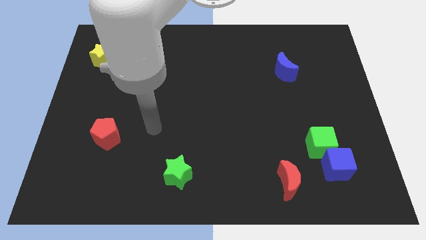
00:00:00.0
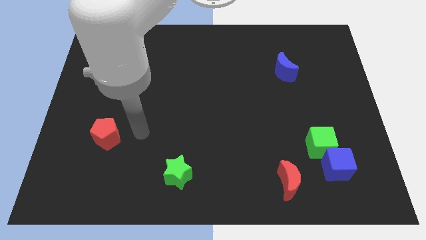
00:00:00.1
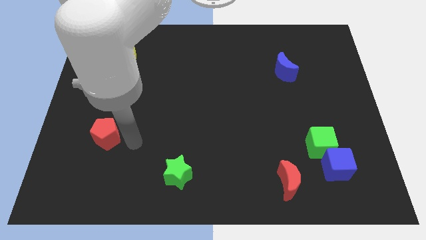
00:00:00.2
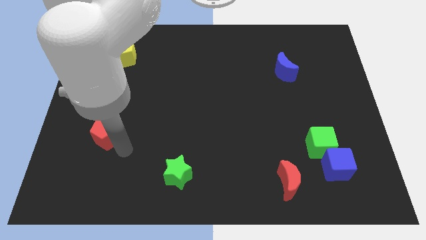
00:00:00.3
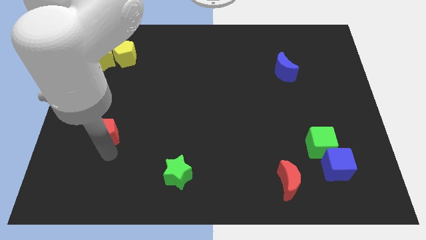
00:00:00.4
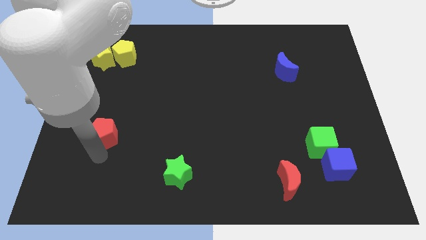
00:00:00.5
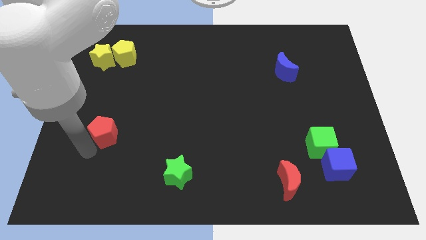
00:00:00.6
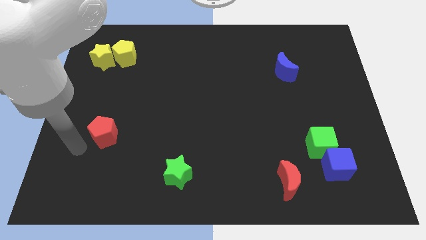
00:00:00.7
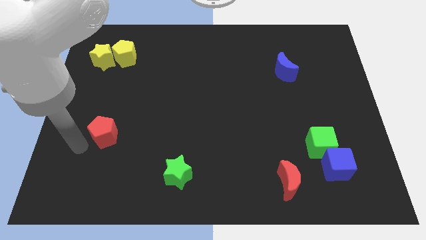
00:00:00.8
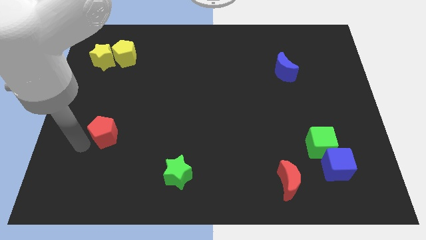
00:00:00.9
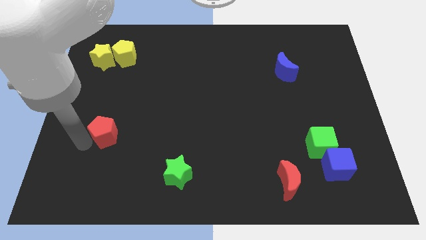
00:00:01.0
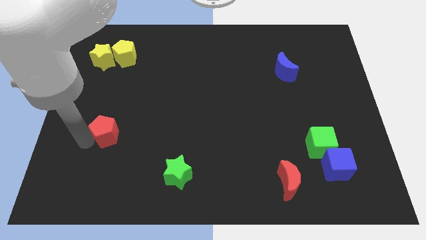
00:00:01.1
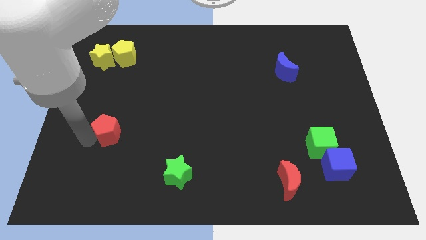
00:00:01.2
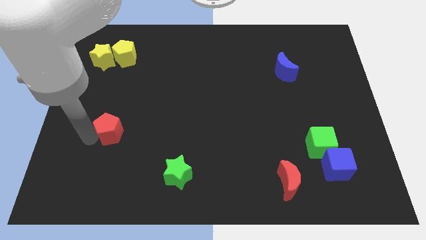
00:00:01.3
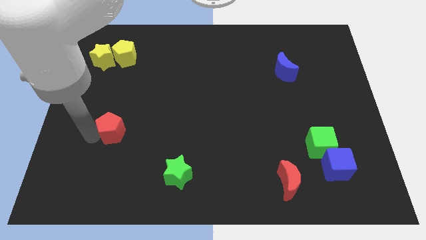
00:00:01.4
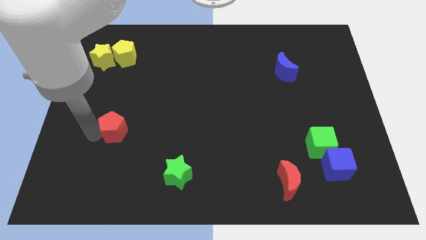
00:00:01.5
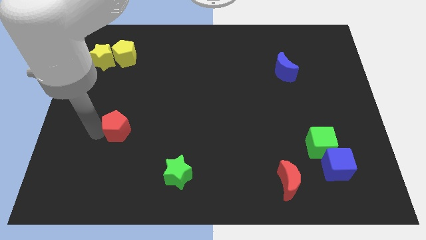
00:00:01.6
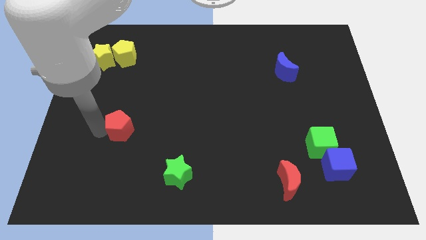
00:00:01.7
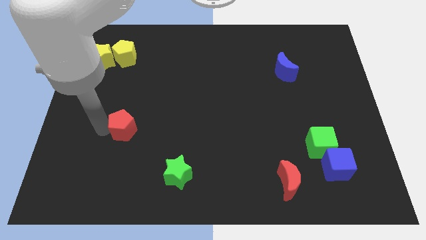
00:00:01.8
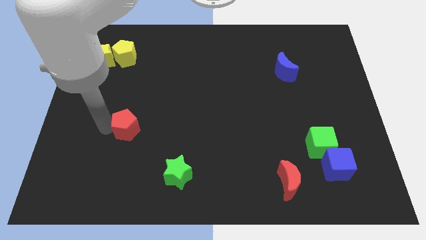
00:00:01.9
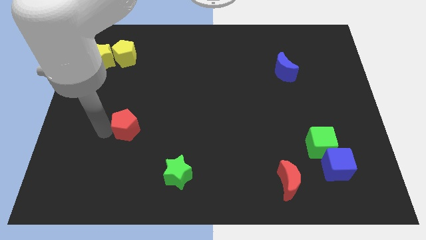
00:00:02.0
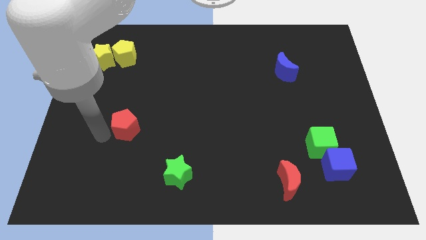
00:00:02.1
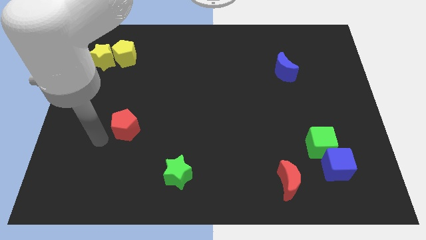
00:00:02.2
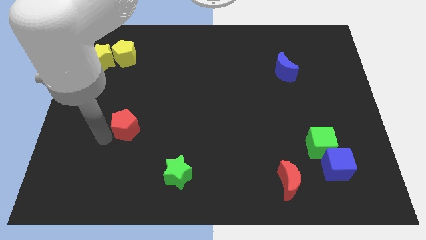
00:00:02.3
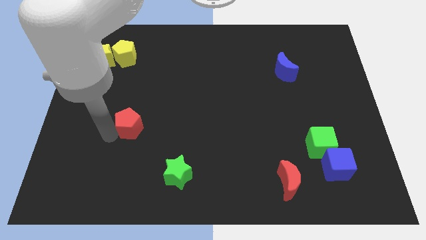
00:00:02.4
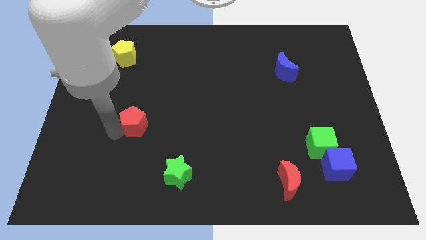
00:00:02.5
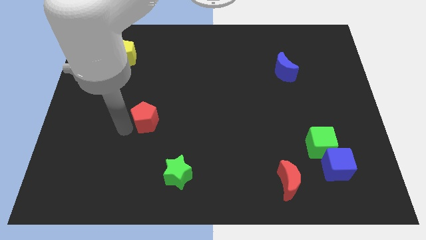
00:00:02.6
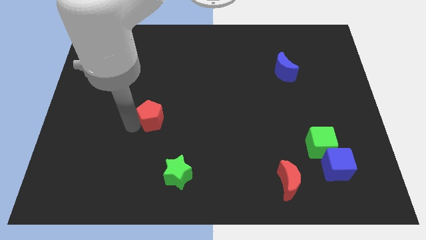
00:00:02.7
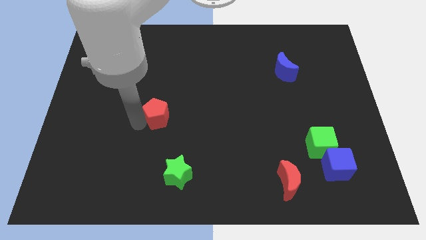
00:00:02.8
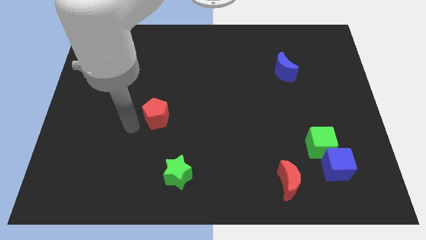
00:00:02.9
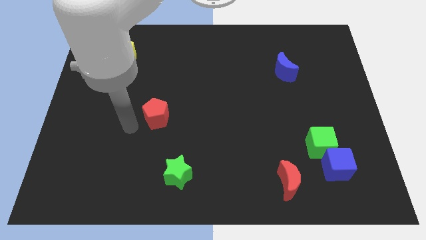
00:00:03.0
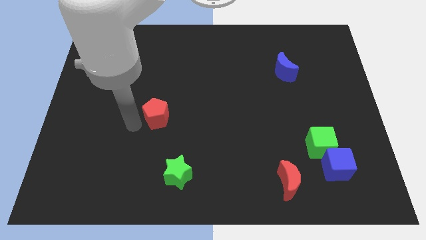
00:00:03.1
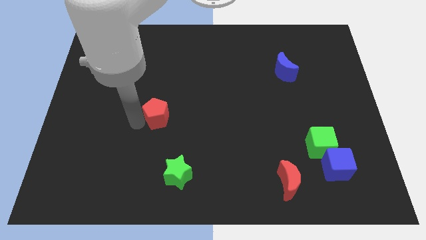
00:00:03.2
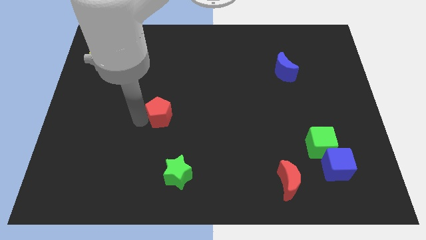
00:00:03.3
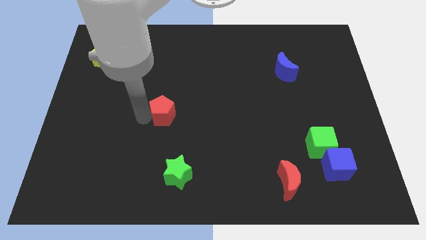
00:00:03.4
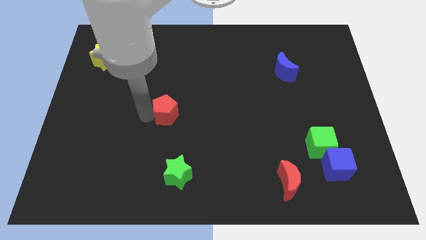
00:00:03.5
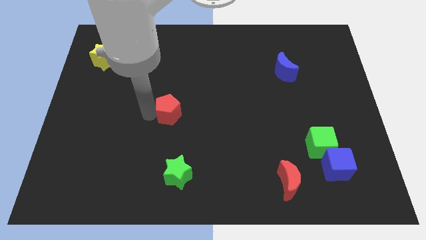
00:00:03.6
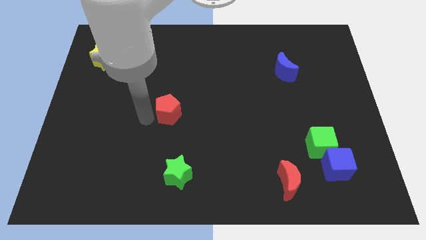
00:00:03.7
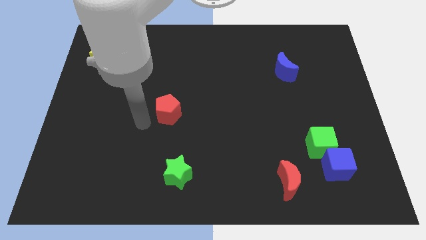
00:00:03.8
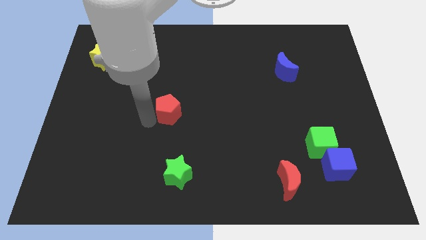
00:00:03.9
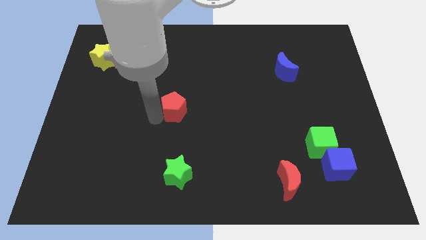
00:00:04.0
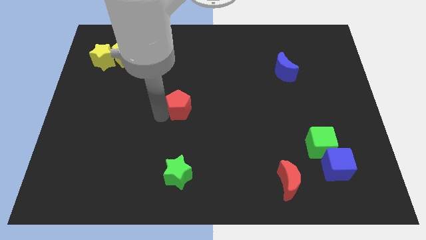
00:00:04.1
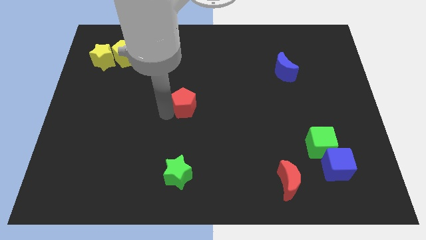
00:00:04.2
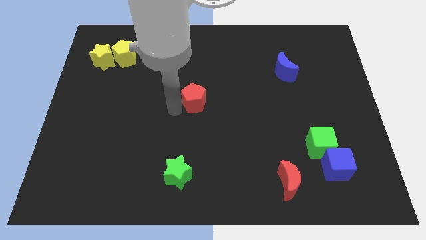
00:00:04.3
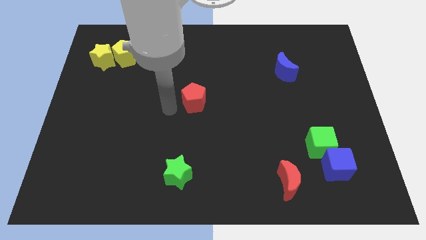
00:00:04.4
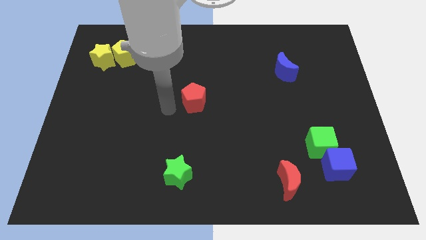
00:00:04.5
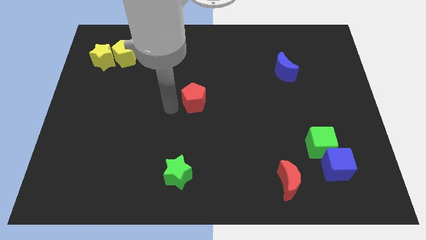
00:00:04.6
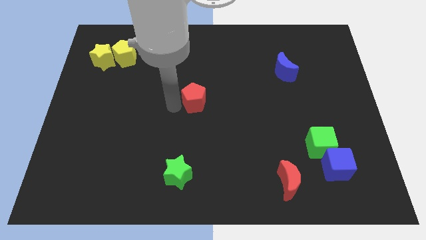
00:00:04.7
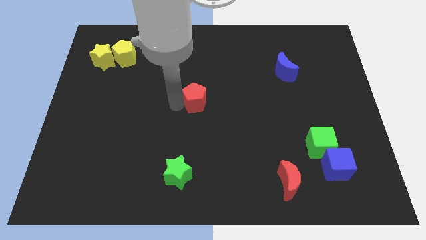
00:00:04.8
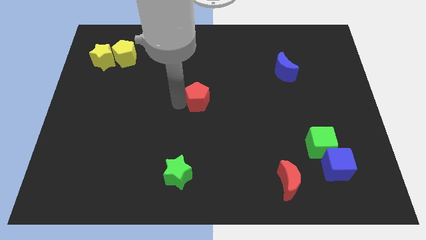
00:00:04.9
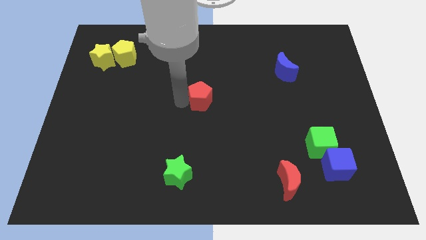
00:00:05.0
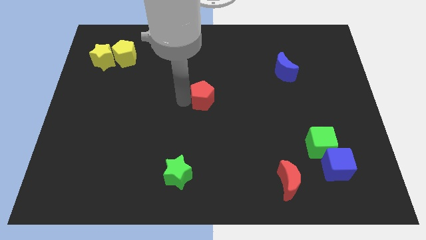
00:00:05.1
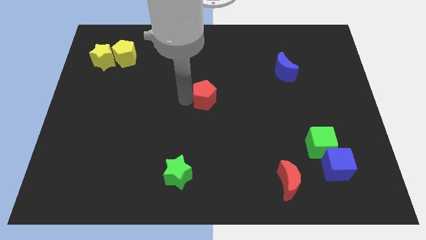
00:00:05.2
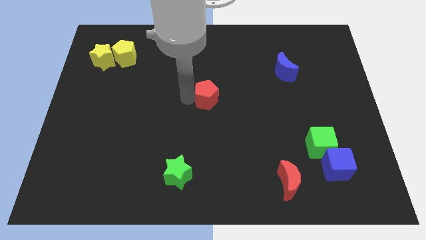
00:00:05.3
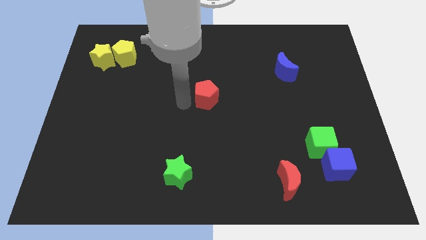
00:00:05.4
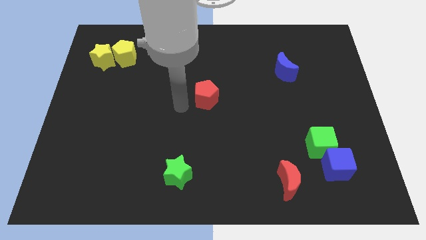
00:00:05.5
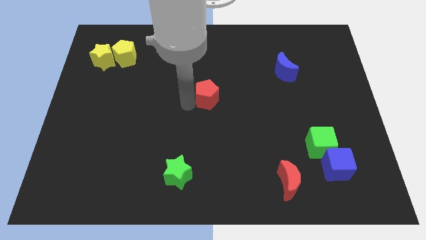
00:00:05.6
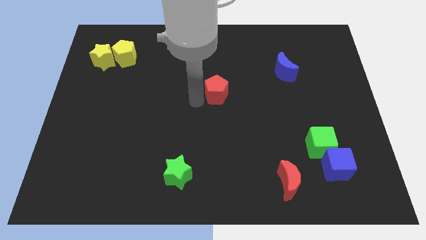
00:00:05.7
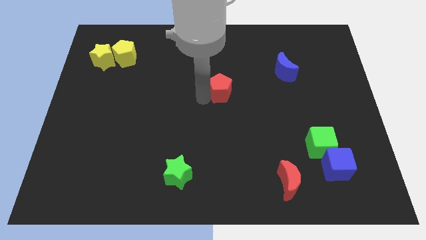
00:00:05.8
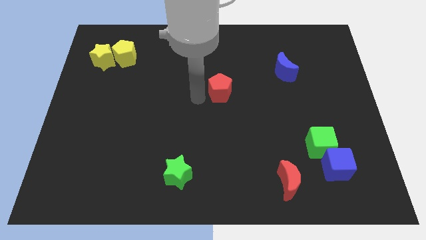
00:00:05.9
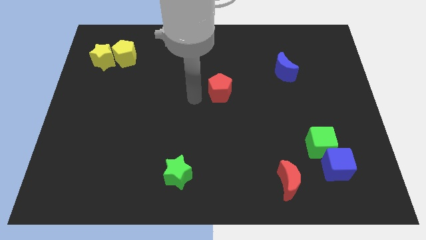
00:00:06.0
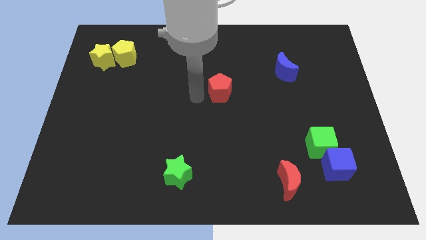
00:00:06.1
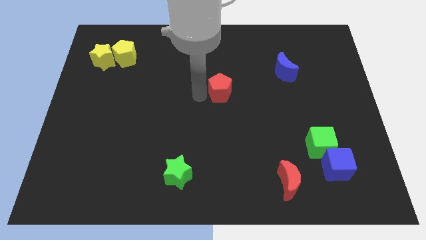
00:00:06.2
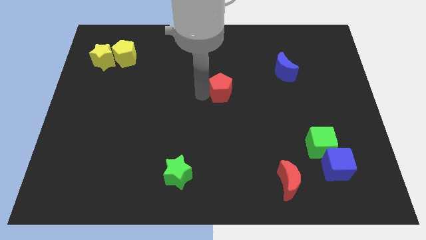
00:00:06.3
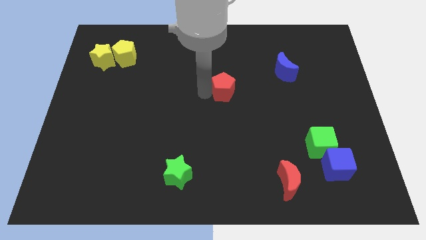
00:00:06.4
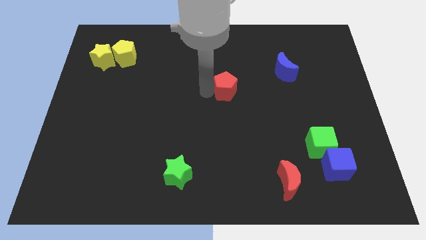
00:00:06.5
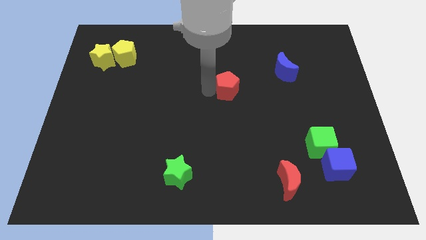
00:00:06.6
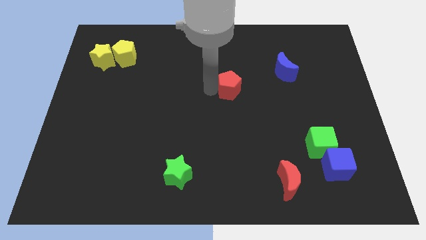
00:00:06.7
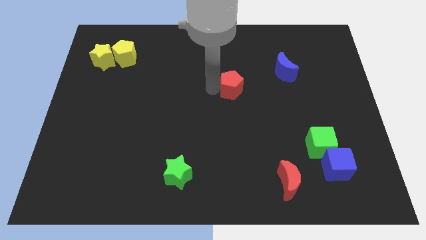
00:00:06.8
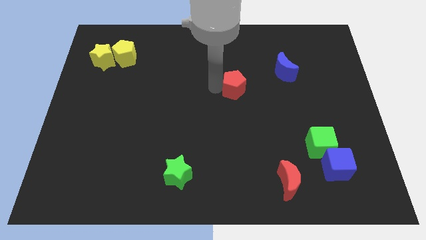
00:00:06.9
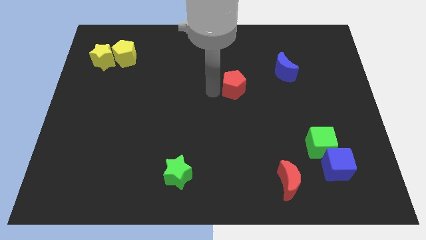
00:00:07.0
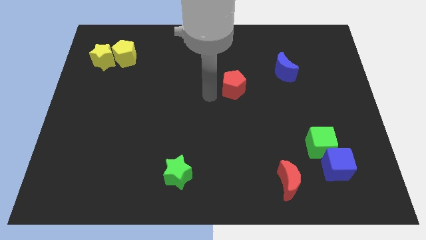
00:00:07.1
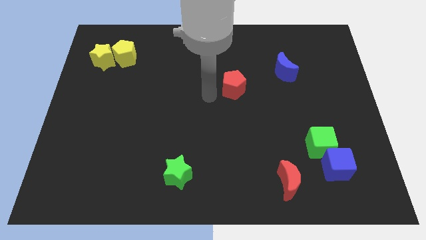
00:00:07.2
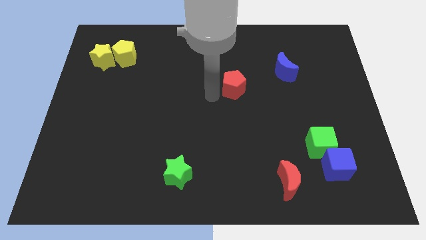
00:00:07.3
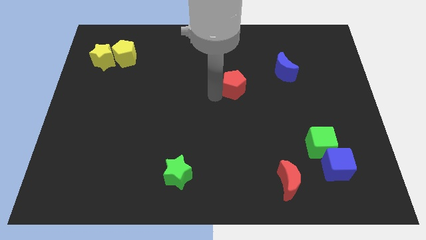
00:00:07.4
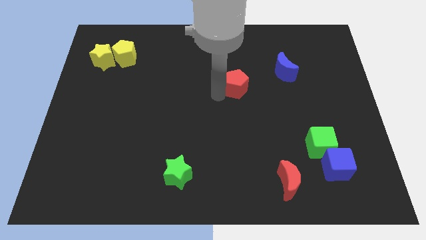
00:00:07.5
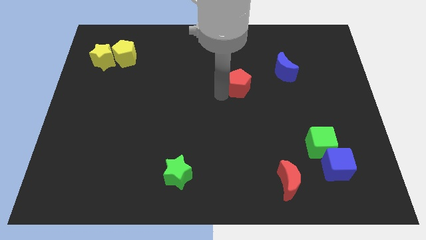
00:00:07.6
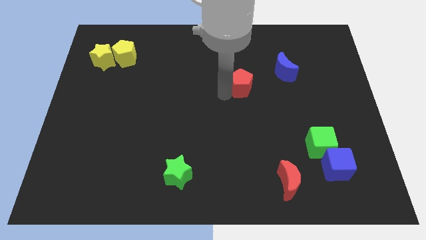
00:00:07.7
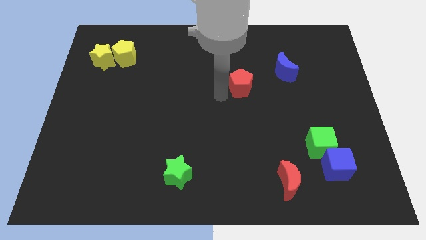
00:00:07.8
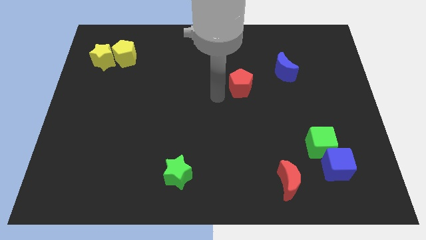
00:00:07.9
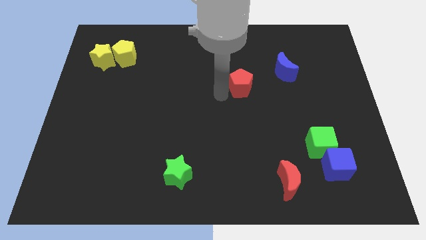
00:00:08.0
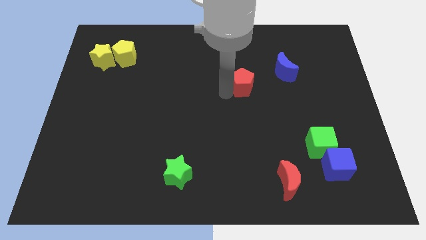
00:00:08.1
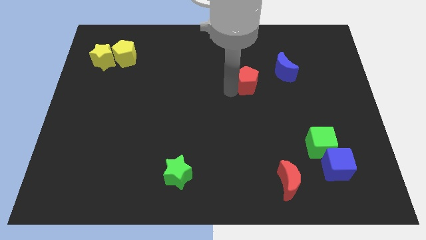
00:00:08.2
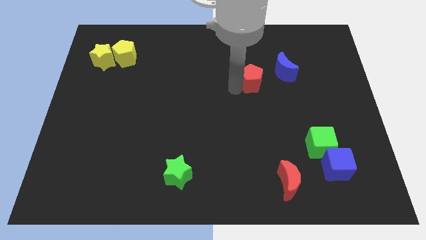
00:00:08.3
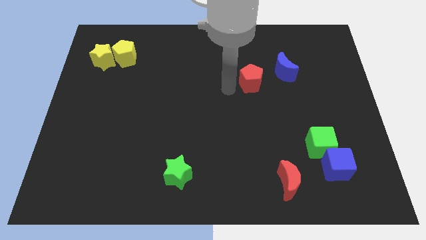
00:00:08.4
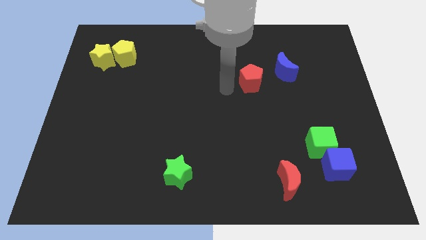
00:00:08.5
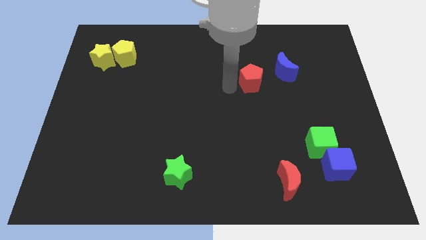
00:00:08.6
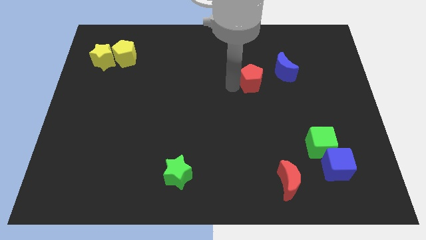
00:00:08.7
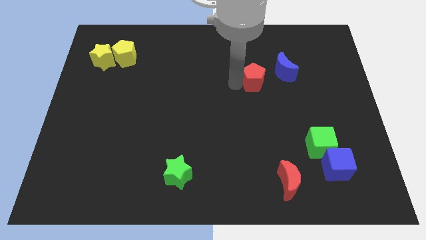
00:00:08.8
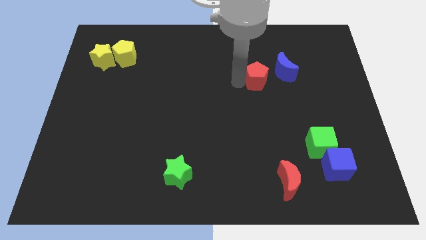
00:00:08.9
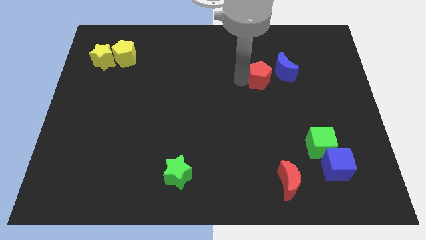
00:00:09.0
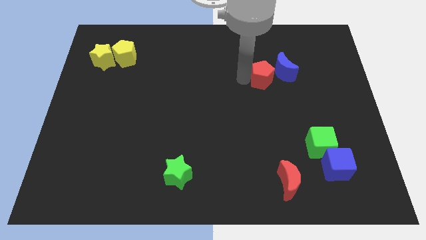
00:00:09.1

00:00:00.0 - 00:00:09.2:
push the red pentagon to the blue moon
